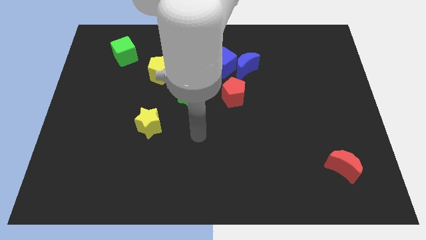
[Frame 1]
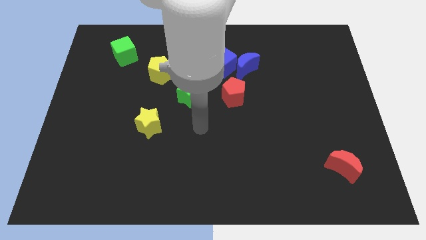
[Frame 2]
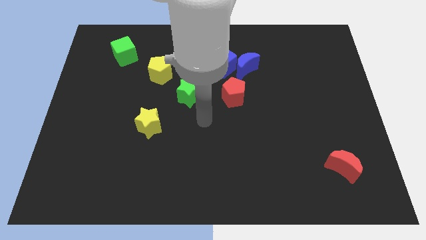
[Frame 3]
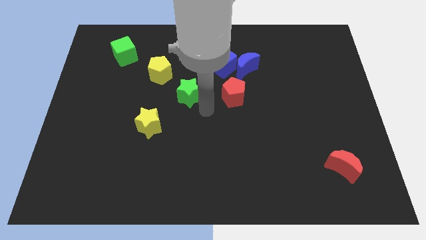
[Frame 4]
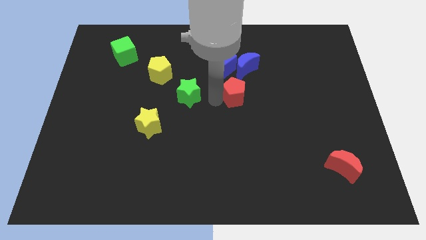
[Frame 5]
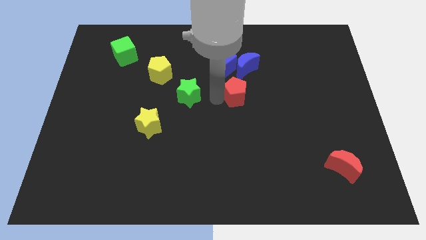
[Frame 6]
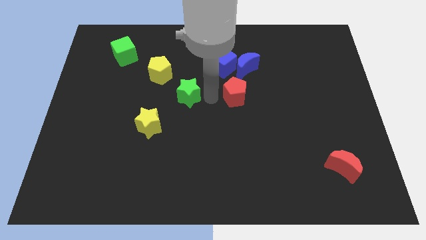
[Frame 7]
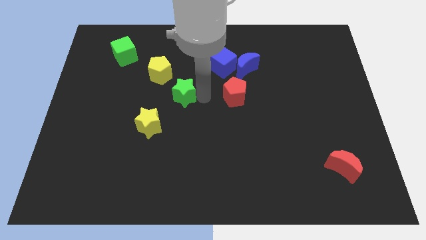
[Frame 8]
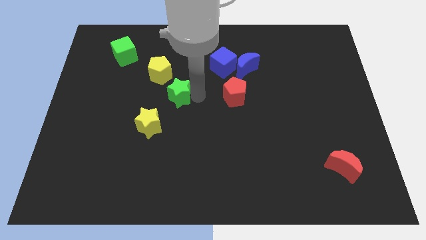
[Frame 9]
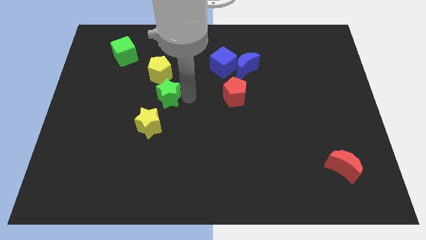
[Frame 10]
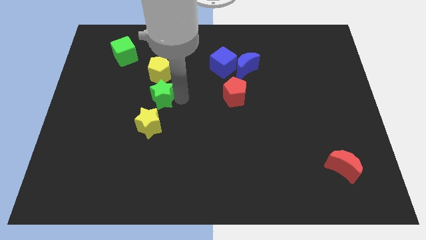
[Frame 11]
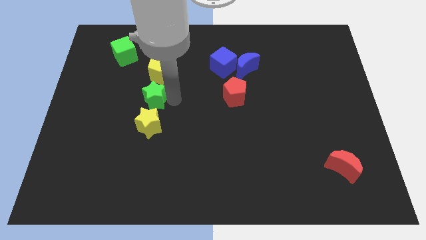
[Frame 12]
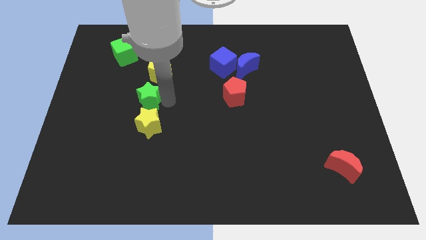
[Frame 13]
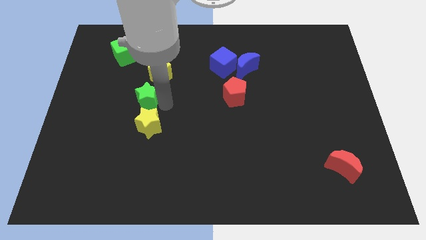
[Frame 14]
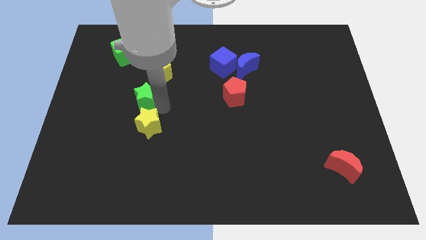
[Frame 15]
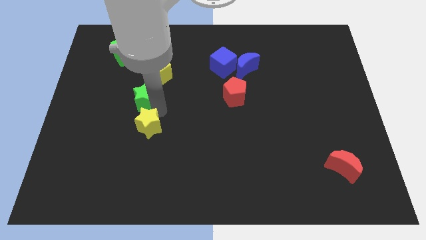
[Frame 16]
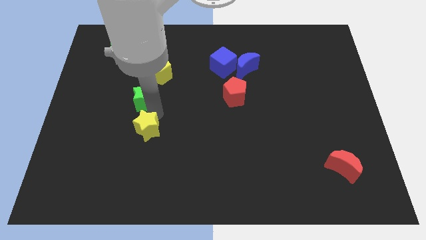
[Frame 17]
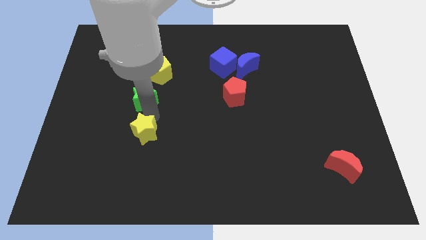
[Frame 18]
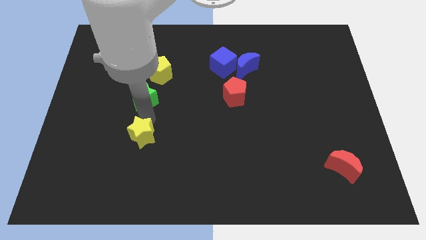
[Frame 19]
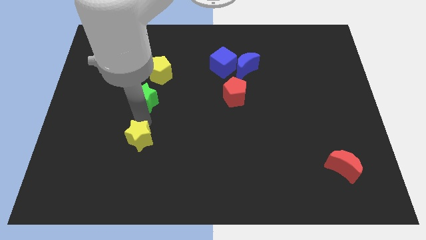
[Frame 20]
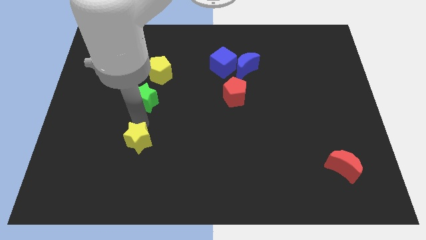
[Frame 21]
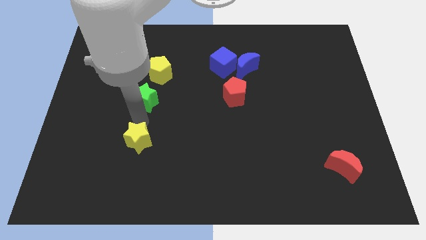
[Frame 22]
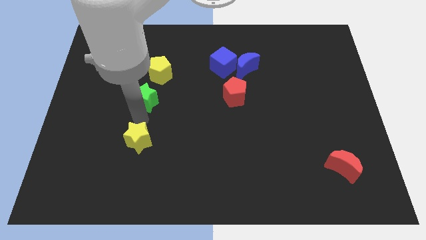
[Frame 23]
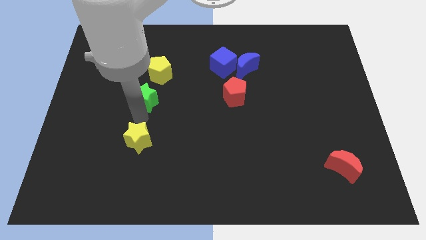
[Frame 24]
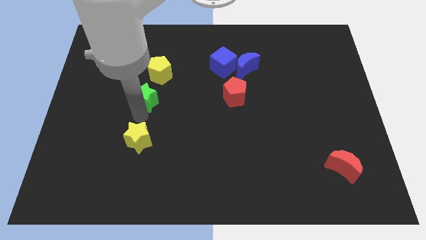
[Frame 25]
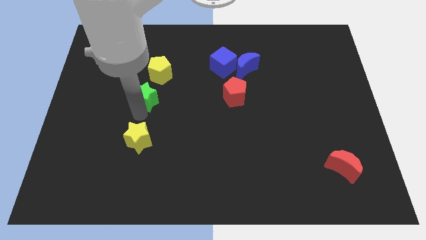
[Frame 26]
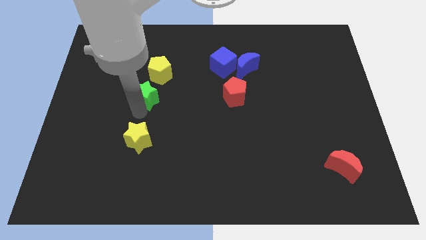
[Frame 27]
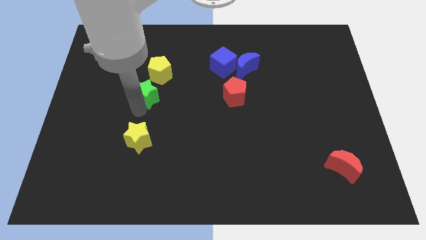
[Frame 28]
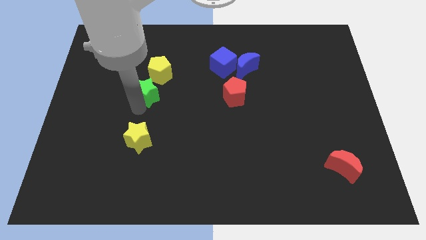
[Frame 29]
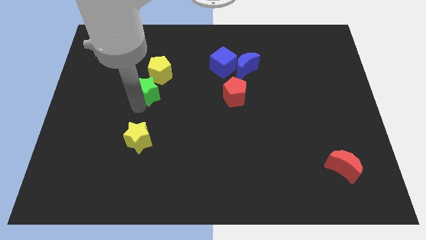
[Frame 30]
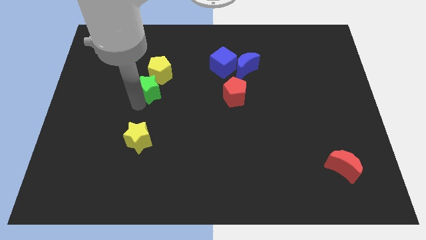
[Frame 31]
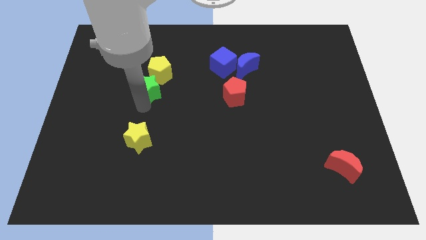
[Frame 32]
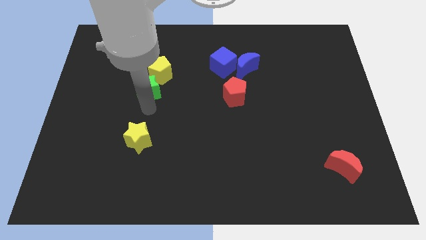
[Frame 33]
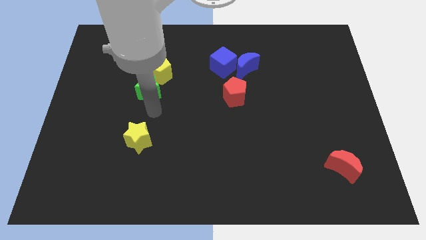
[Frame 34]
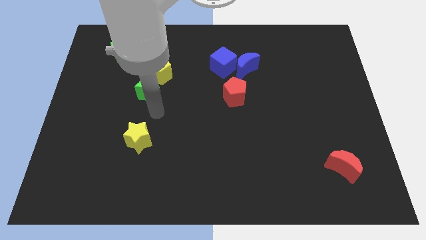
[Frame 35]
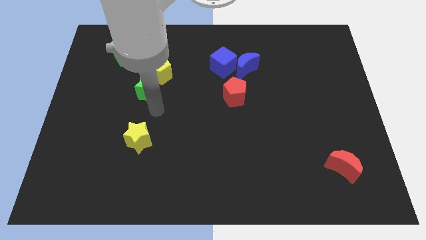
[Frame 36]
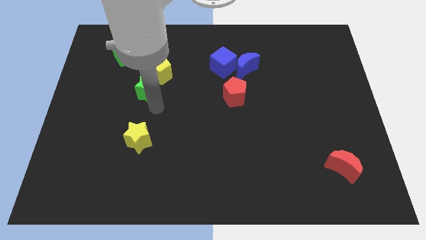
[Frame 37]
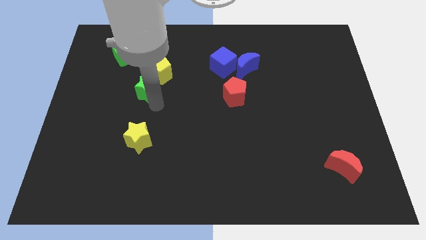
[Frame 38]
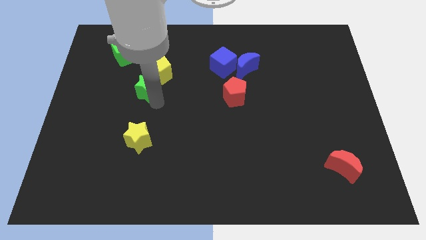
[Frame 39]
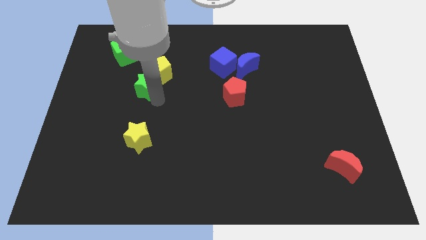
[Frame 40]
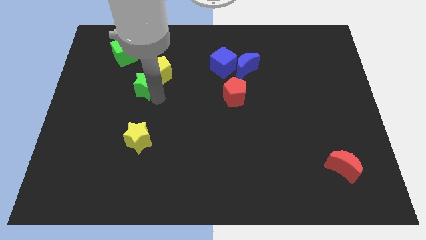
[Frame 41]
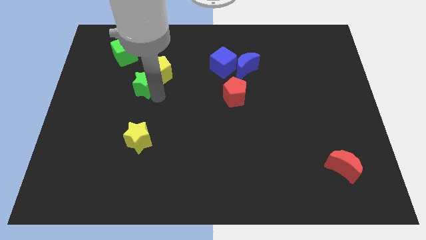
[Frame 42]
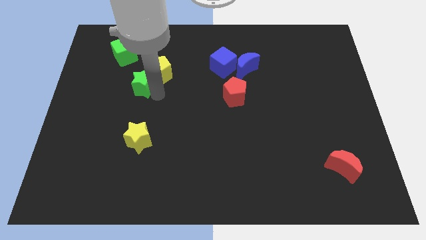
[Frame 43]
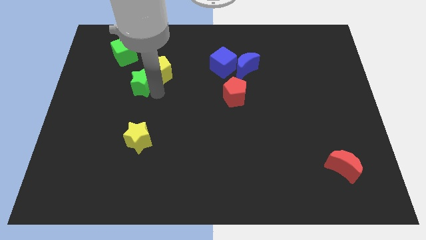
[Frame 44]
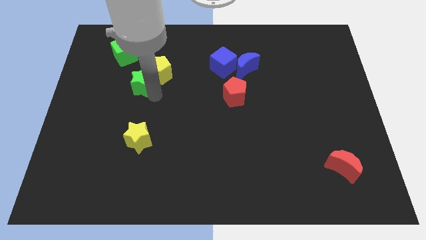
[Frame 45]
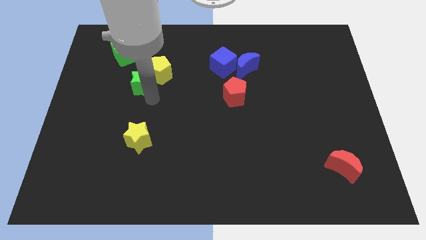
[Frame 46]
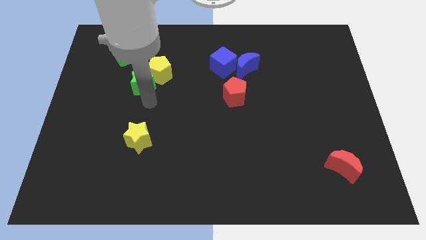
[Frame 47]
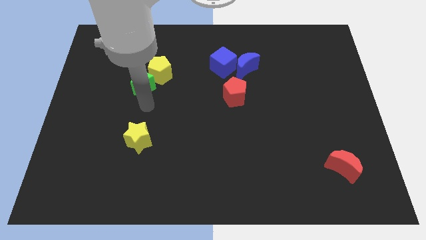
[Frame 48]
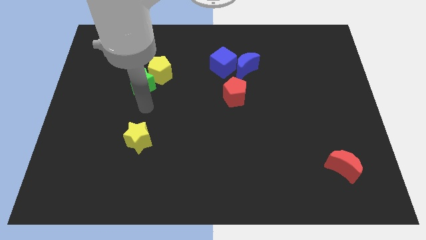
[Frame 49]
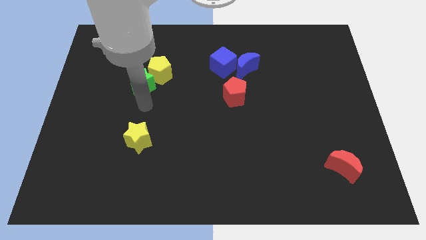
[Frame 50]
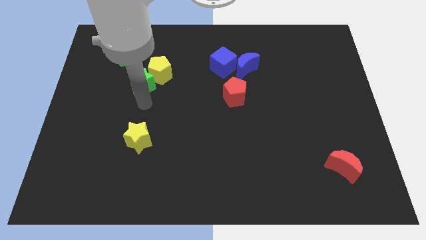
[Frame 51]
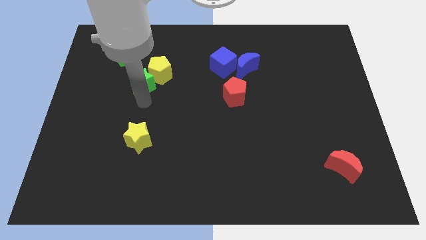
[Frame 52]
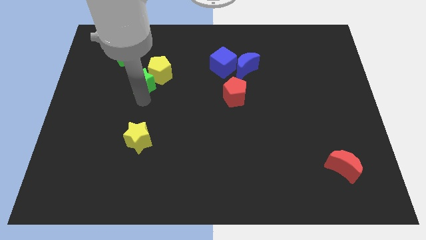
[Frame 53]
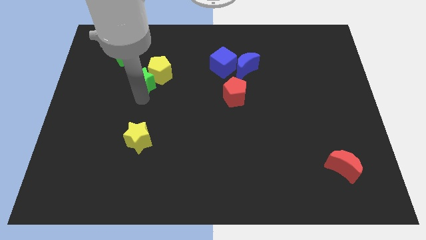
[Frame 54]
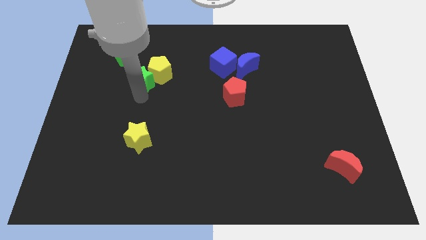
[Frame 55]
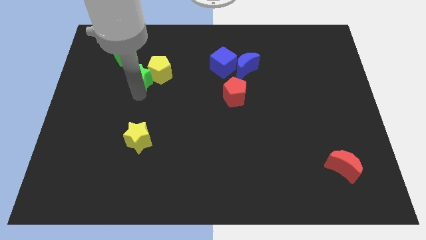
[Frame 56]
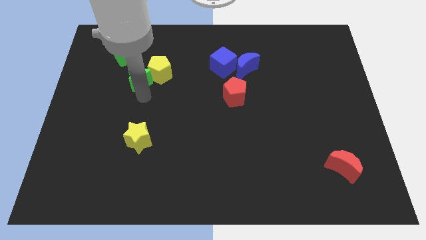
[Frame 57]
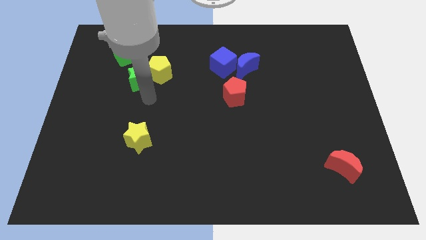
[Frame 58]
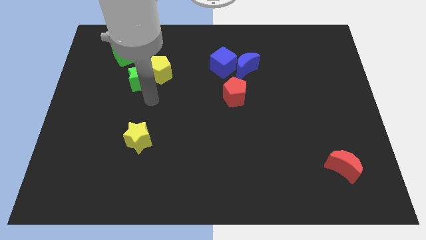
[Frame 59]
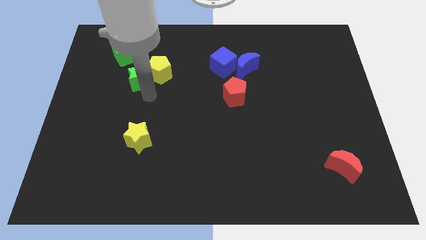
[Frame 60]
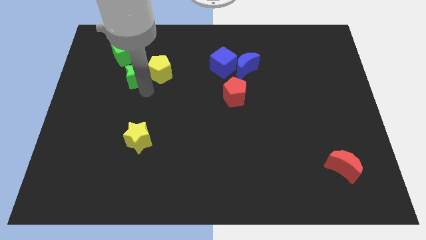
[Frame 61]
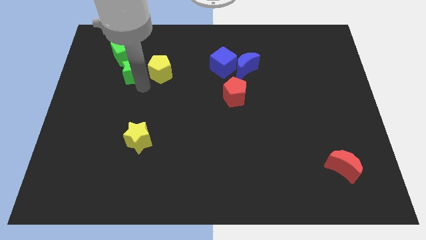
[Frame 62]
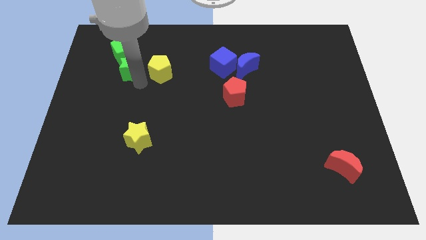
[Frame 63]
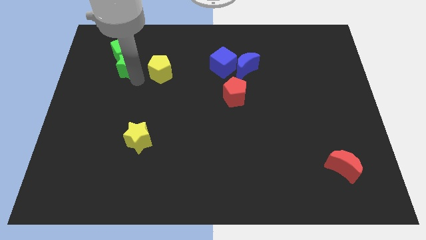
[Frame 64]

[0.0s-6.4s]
push the green star towards the green cube

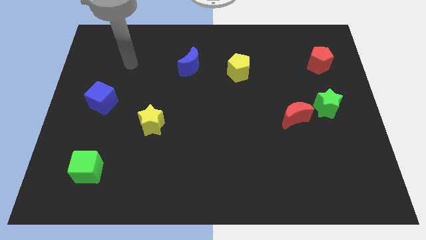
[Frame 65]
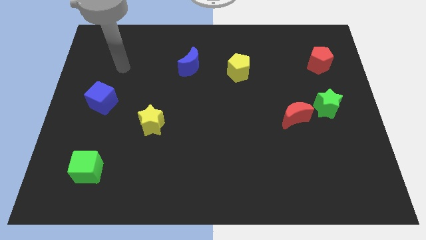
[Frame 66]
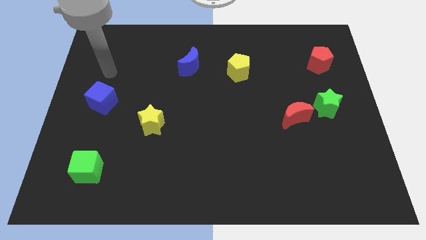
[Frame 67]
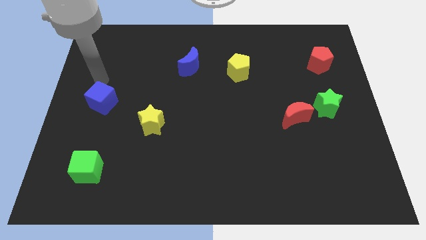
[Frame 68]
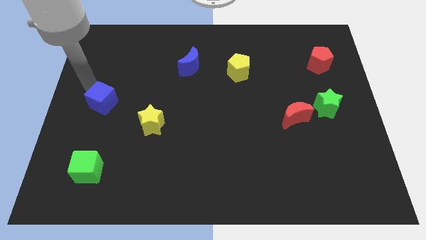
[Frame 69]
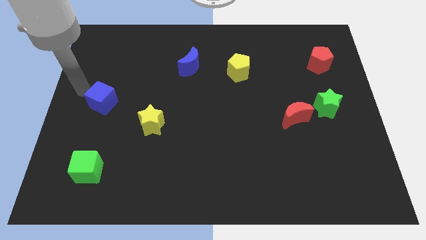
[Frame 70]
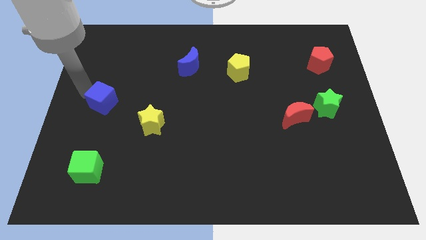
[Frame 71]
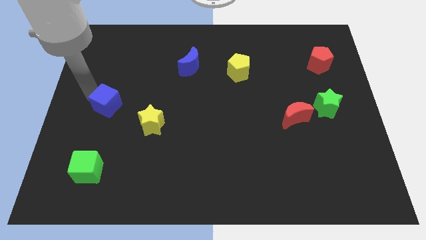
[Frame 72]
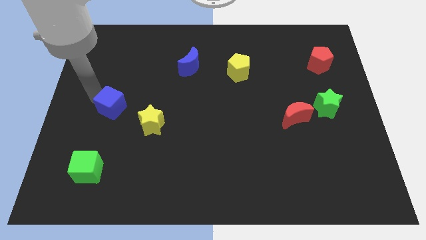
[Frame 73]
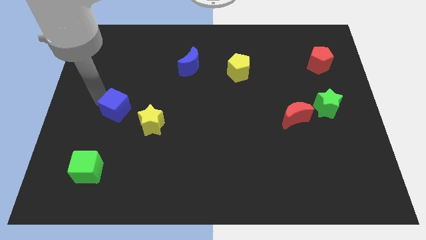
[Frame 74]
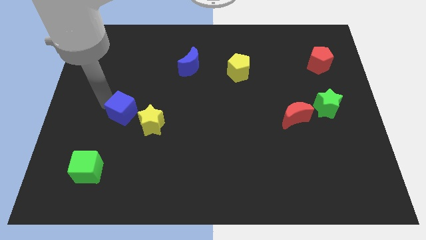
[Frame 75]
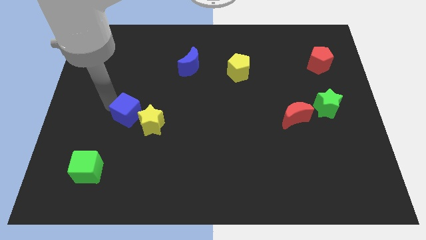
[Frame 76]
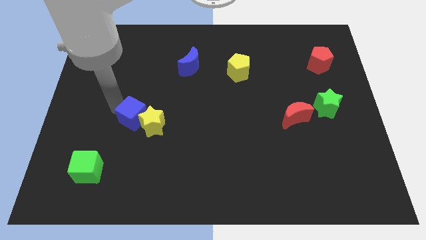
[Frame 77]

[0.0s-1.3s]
push the blue cube next to the yellow star
